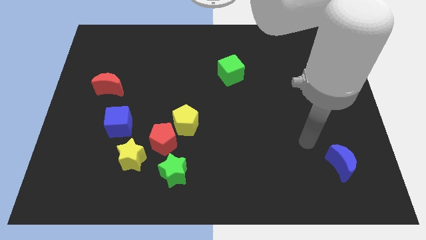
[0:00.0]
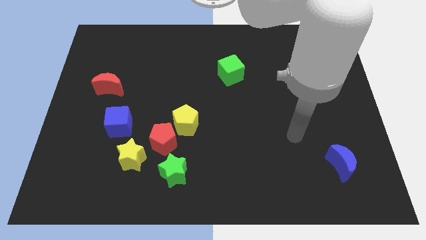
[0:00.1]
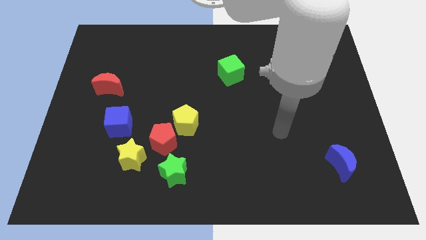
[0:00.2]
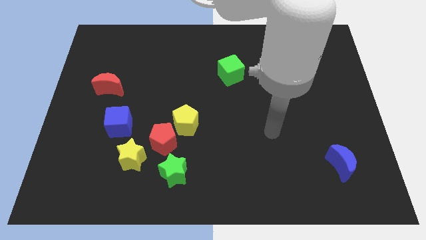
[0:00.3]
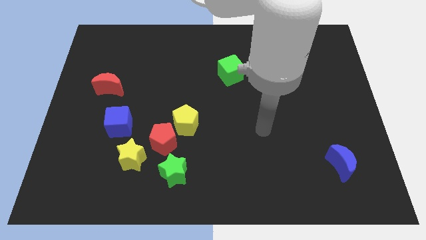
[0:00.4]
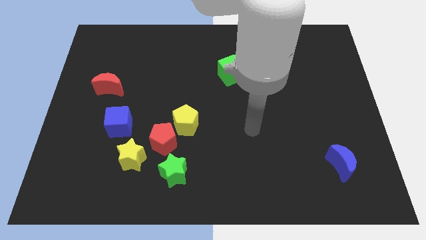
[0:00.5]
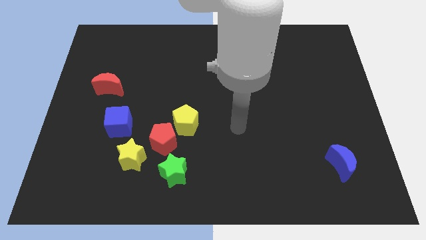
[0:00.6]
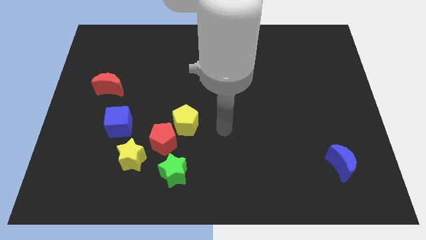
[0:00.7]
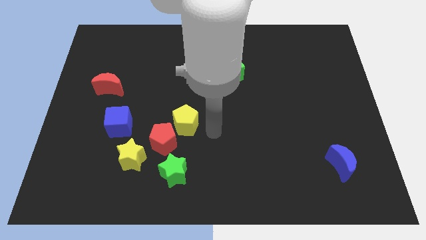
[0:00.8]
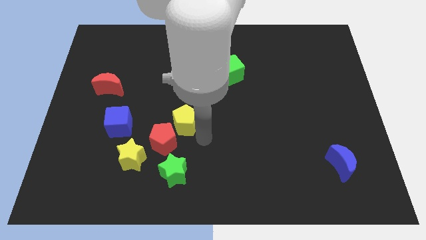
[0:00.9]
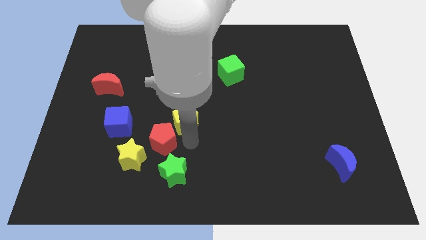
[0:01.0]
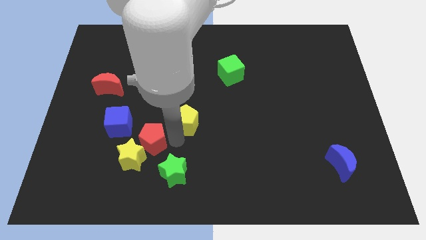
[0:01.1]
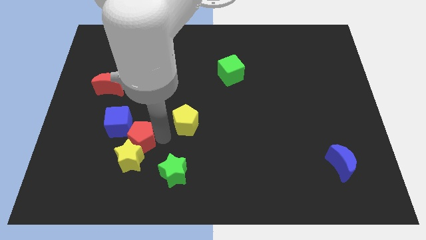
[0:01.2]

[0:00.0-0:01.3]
pull the yellow pentagon apart from the red pentagon

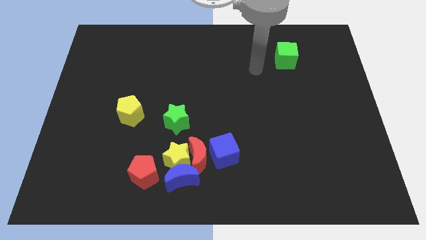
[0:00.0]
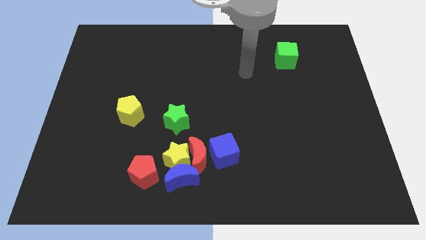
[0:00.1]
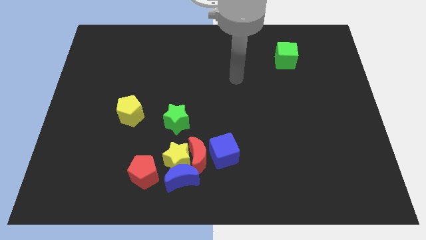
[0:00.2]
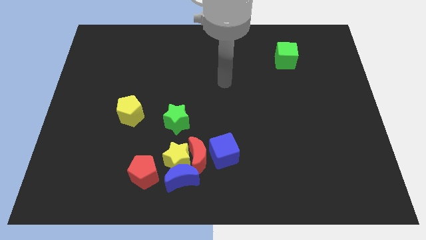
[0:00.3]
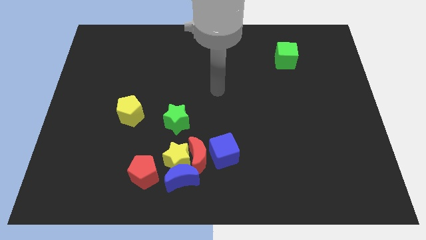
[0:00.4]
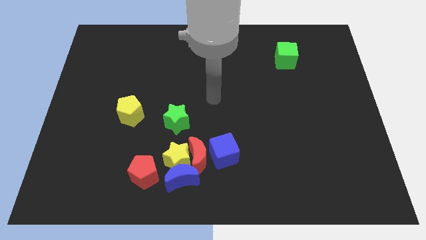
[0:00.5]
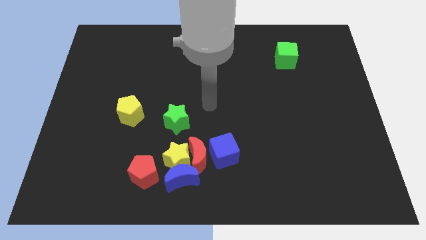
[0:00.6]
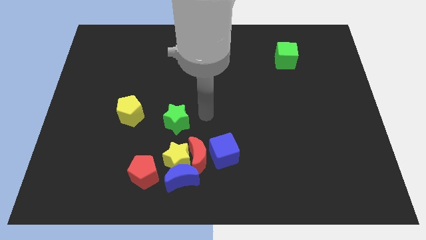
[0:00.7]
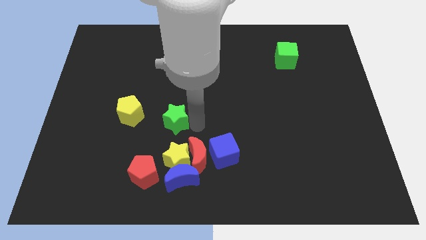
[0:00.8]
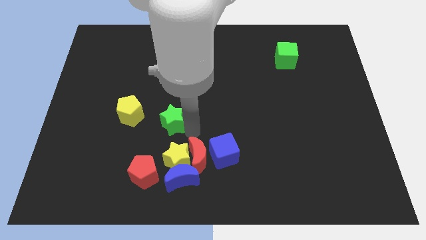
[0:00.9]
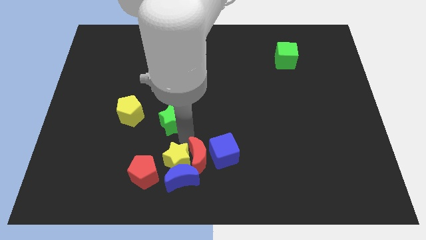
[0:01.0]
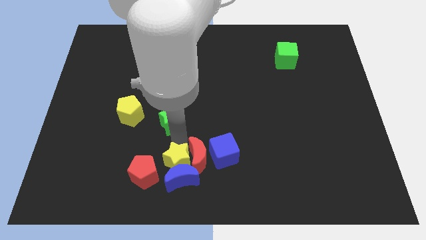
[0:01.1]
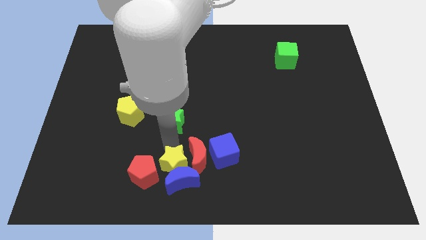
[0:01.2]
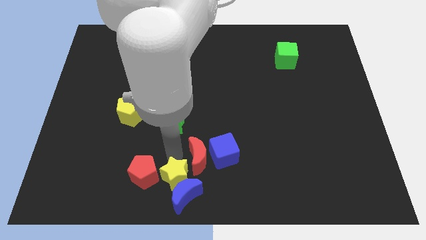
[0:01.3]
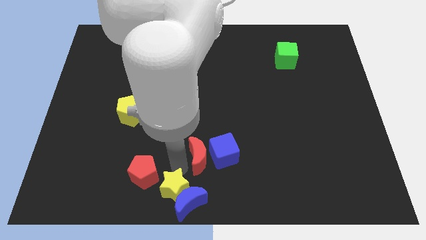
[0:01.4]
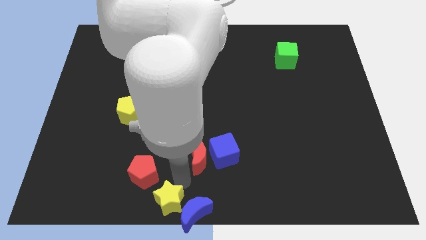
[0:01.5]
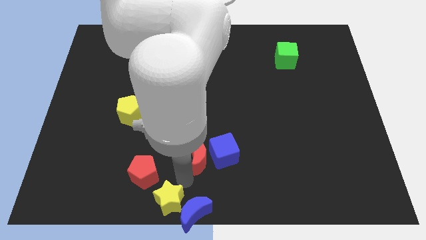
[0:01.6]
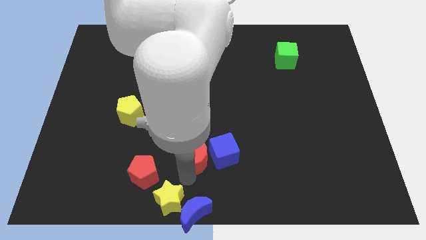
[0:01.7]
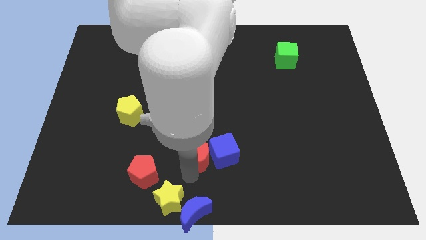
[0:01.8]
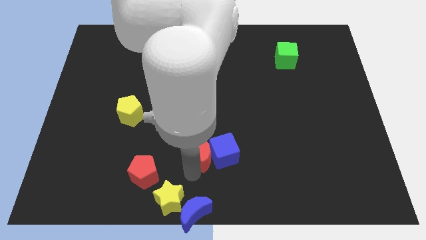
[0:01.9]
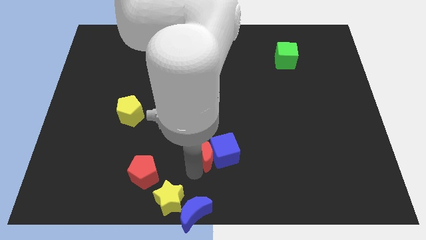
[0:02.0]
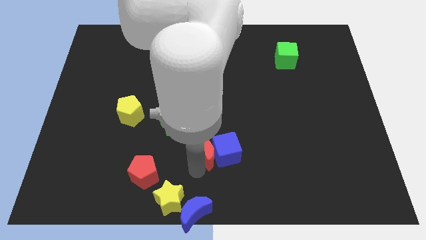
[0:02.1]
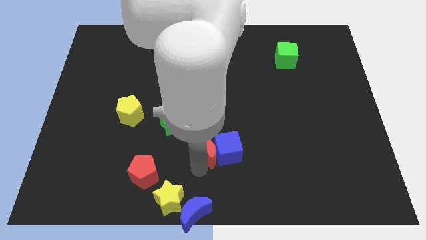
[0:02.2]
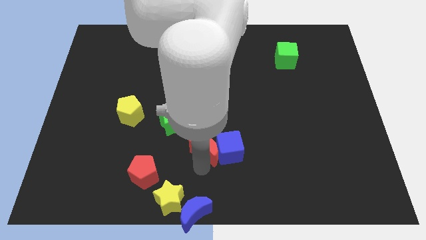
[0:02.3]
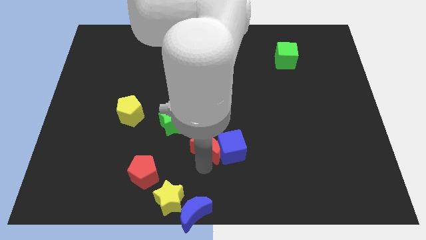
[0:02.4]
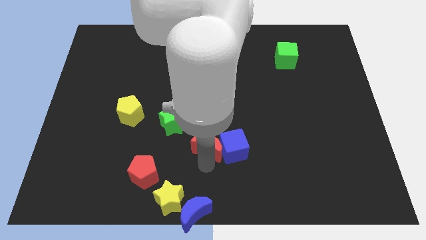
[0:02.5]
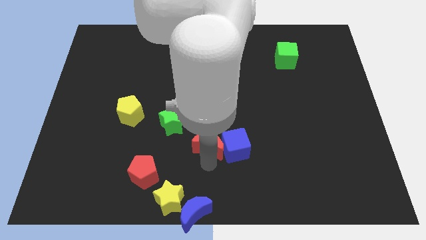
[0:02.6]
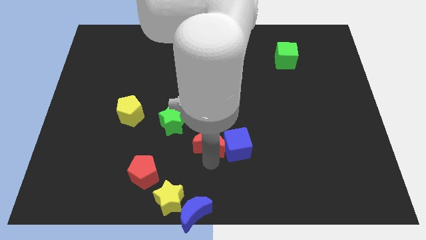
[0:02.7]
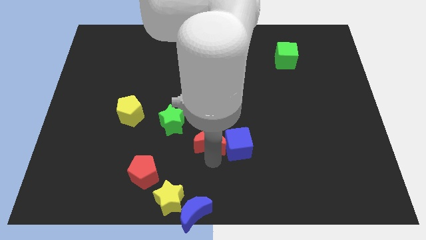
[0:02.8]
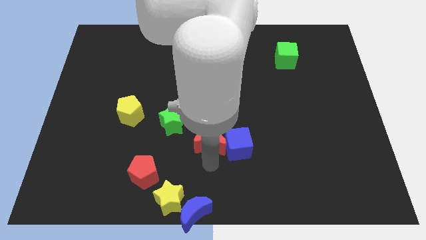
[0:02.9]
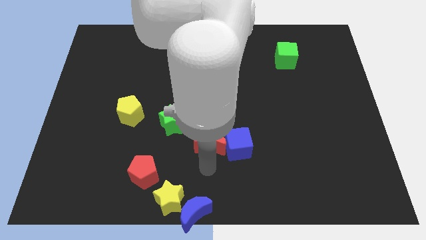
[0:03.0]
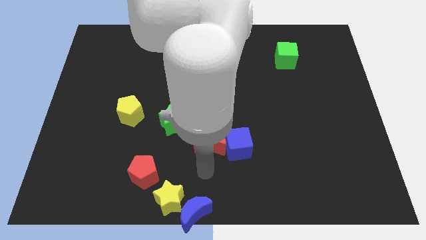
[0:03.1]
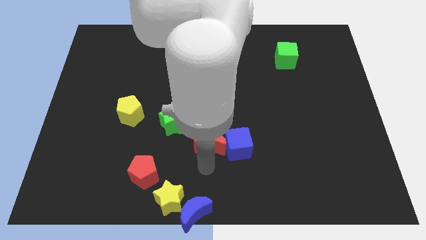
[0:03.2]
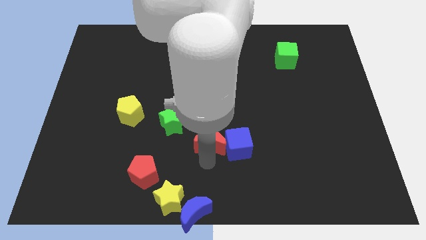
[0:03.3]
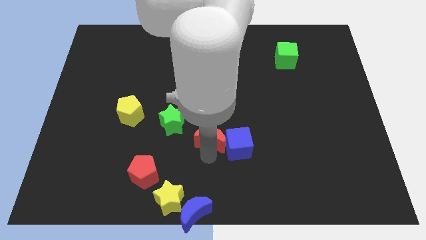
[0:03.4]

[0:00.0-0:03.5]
move the red moon away from the clump

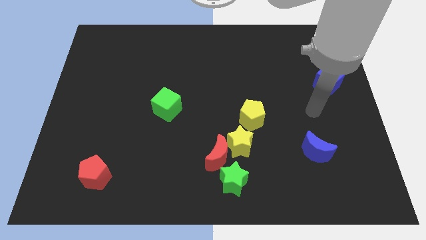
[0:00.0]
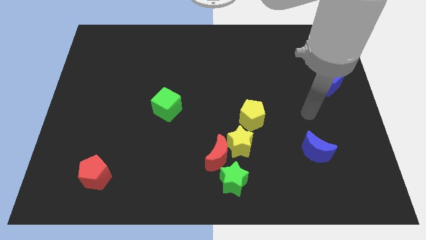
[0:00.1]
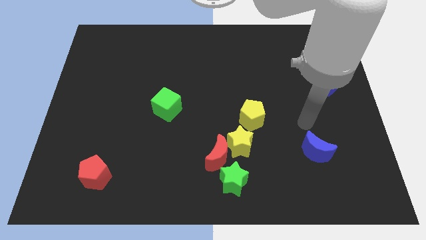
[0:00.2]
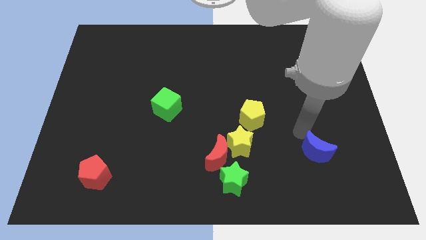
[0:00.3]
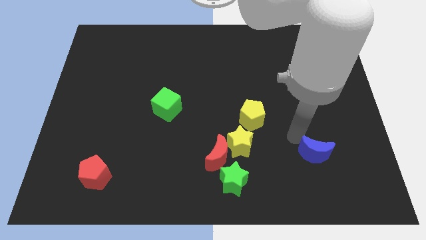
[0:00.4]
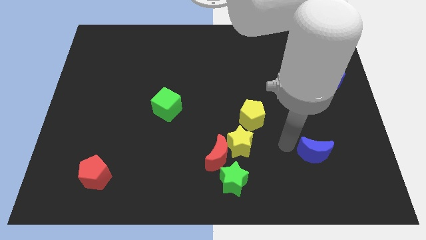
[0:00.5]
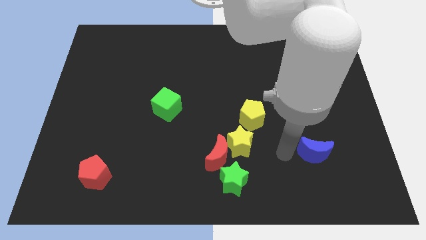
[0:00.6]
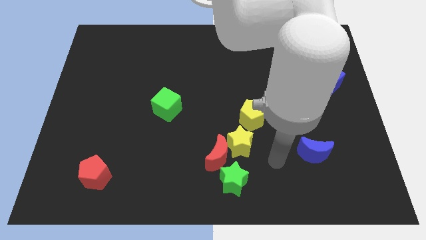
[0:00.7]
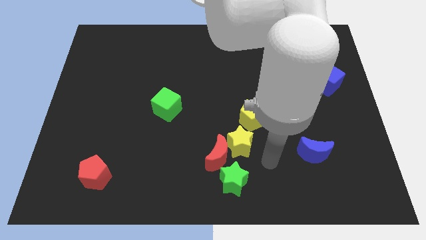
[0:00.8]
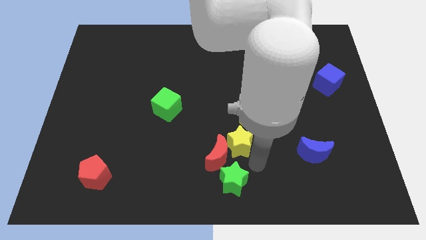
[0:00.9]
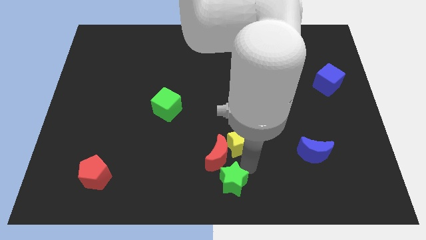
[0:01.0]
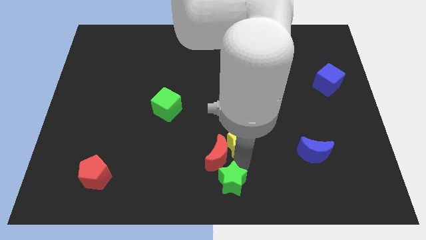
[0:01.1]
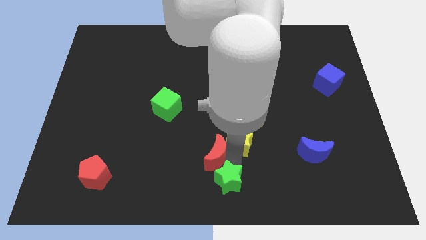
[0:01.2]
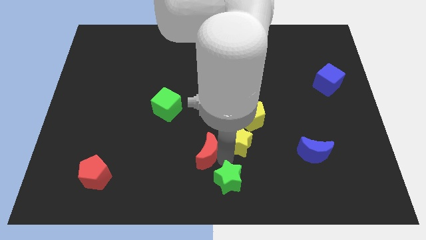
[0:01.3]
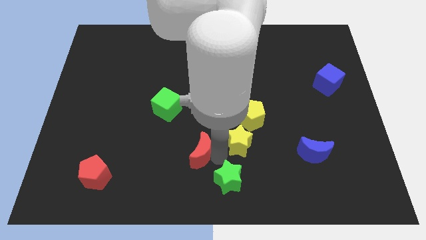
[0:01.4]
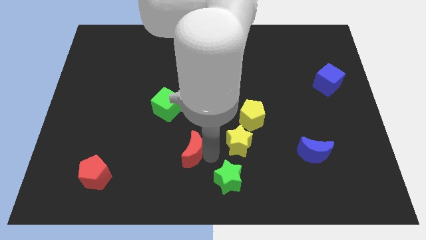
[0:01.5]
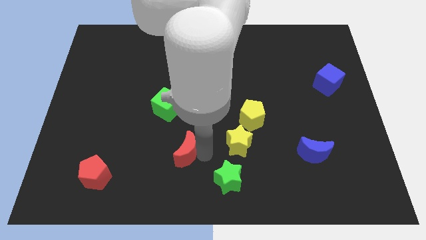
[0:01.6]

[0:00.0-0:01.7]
pull the red moon apart from the yellow star and green star

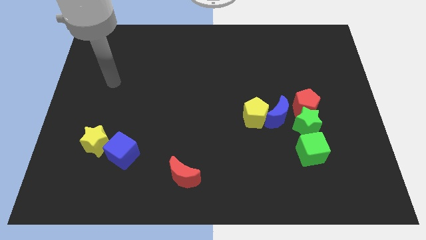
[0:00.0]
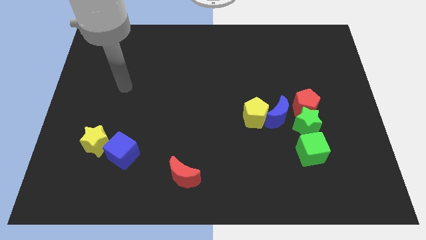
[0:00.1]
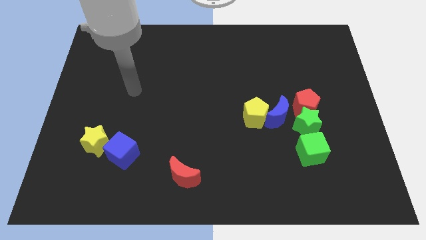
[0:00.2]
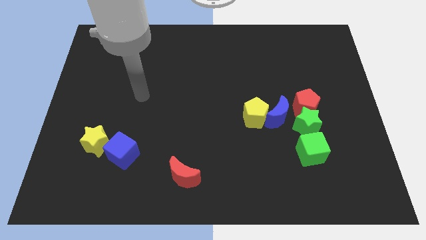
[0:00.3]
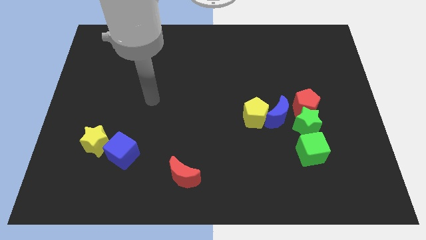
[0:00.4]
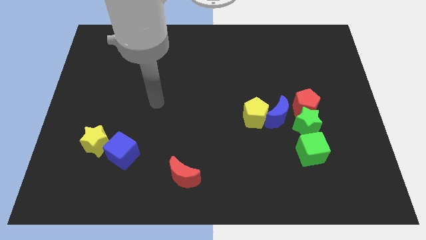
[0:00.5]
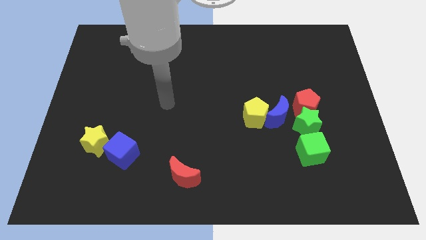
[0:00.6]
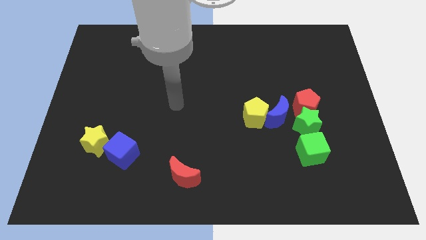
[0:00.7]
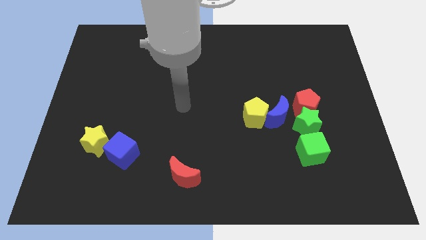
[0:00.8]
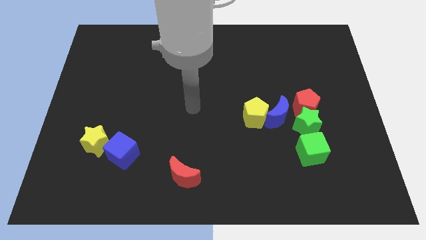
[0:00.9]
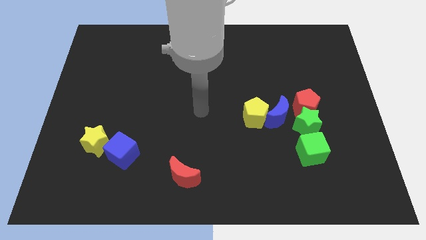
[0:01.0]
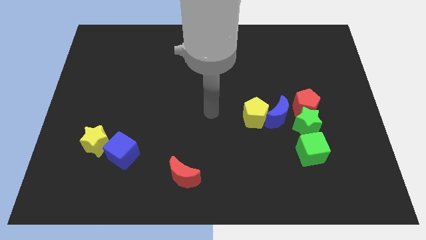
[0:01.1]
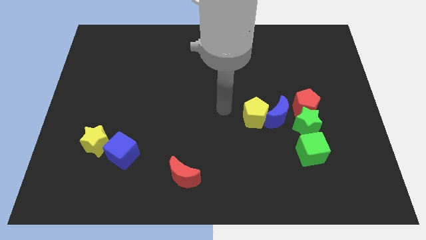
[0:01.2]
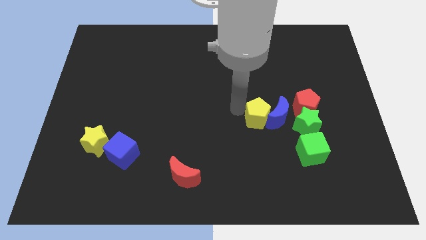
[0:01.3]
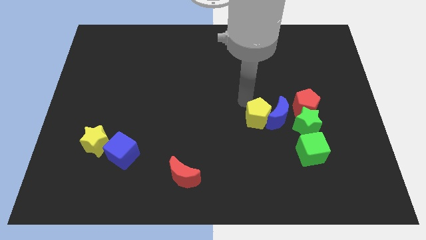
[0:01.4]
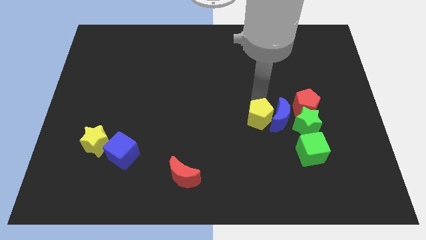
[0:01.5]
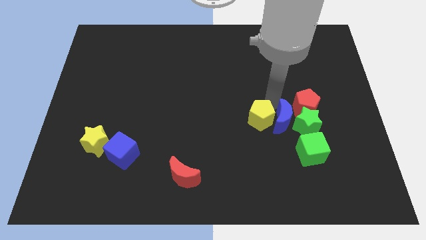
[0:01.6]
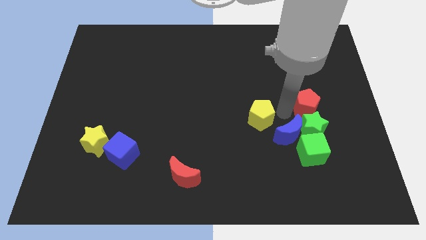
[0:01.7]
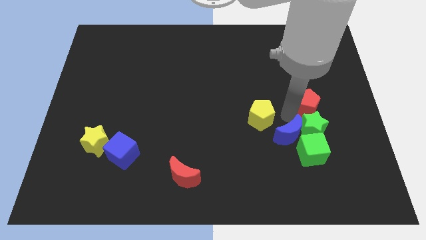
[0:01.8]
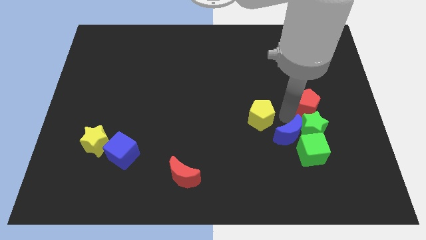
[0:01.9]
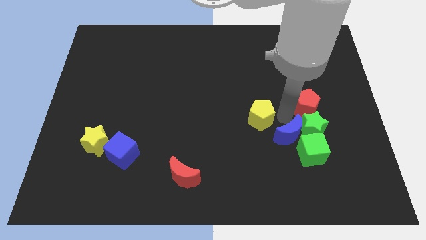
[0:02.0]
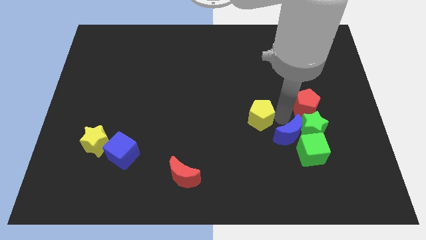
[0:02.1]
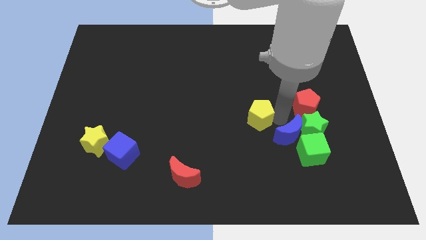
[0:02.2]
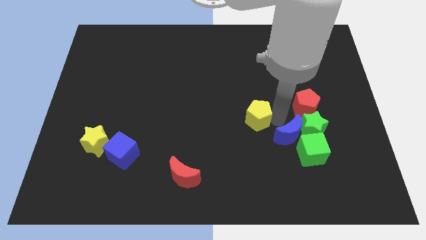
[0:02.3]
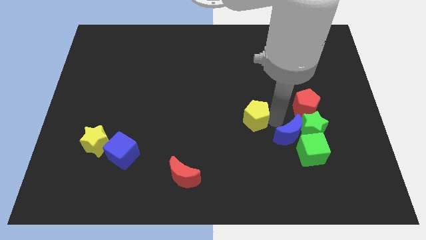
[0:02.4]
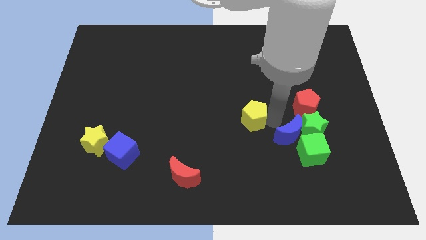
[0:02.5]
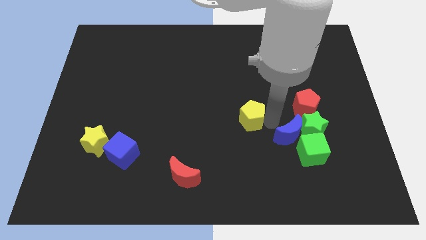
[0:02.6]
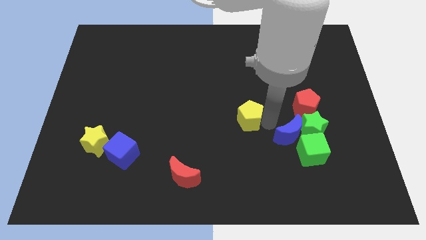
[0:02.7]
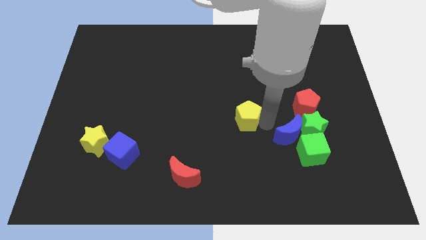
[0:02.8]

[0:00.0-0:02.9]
move the yellow pentagon away from the blue moon
